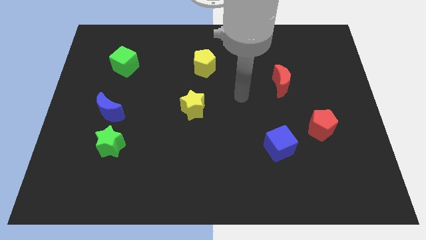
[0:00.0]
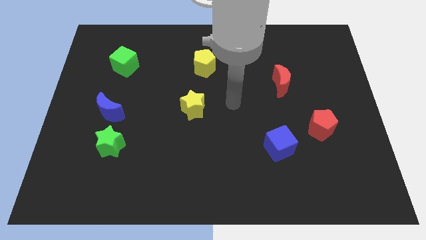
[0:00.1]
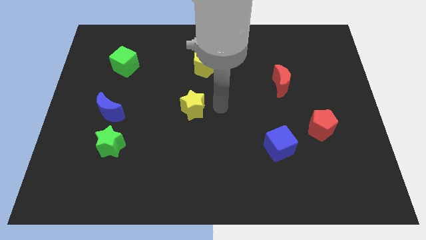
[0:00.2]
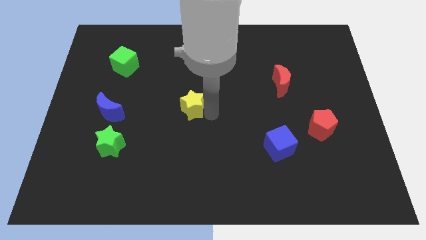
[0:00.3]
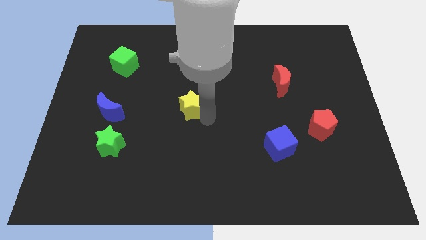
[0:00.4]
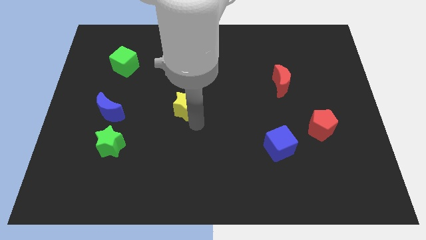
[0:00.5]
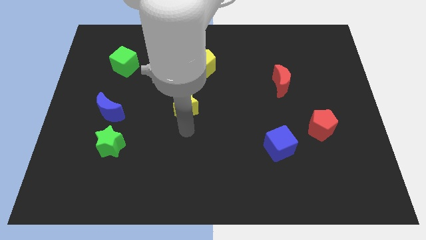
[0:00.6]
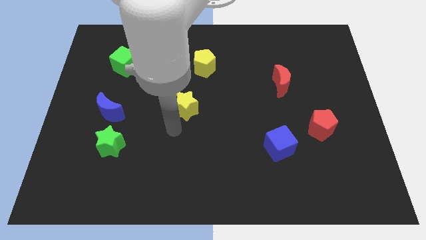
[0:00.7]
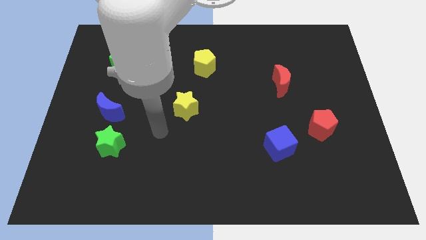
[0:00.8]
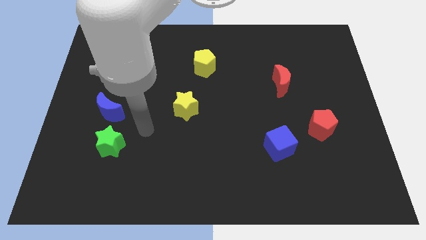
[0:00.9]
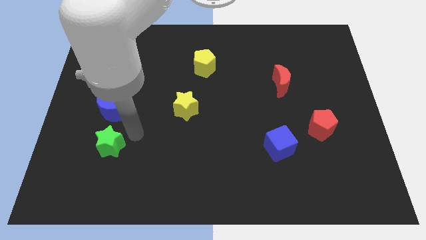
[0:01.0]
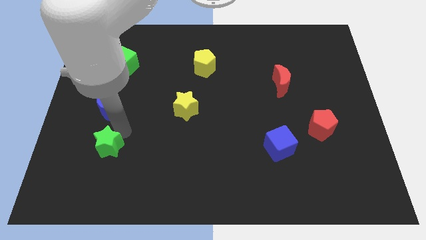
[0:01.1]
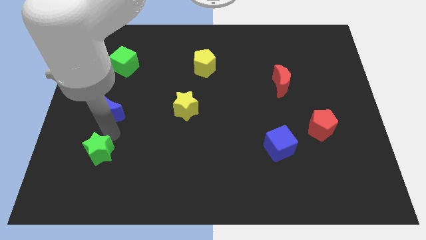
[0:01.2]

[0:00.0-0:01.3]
separate the blue moon from the green star

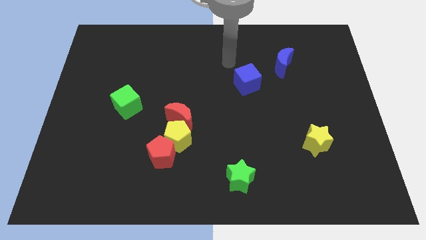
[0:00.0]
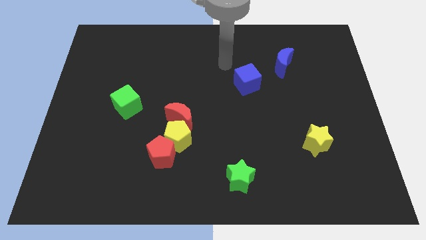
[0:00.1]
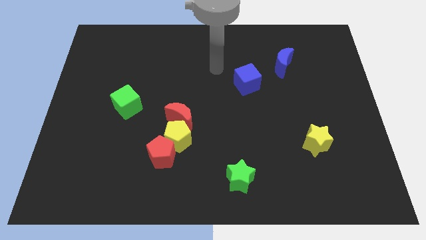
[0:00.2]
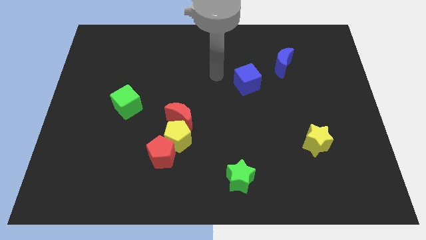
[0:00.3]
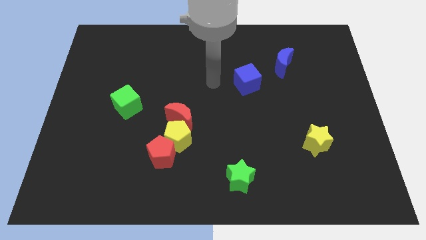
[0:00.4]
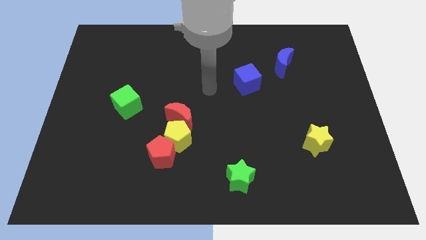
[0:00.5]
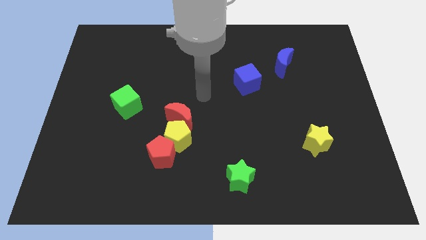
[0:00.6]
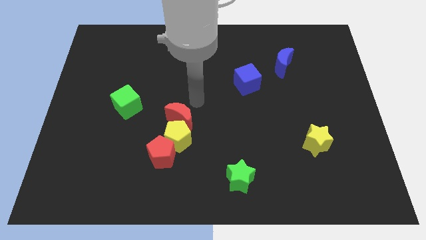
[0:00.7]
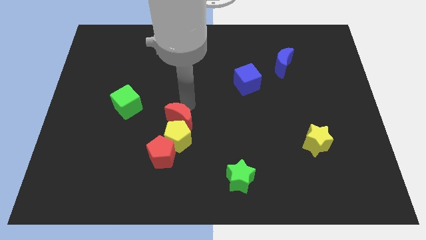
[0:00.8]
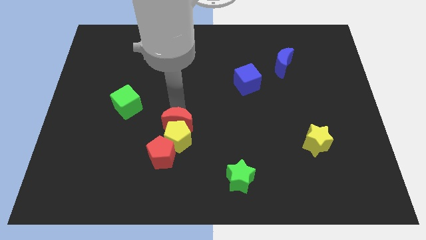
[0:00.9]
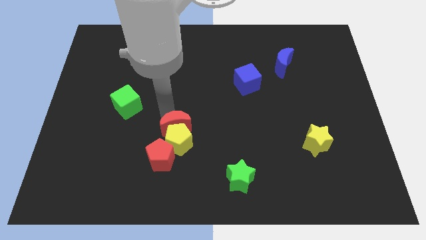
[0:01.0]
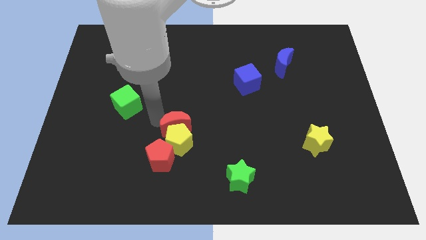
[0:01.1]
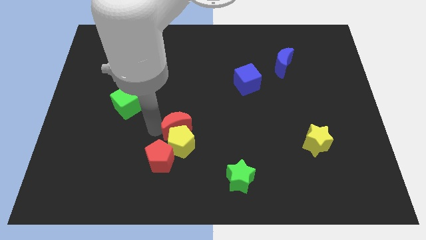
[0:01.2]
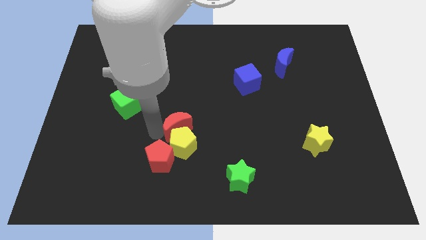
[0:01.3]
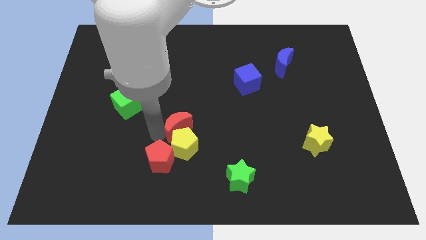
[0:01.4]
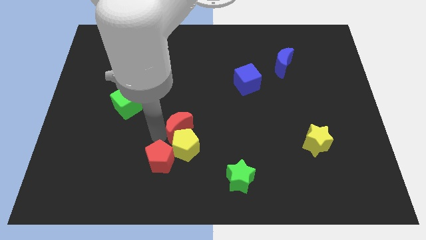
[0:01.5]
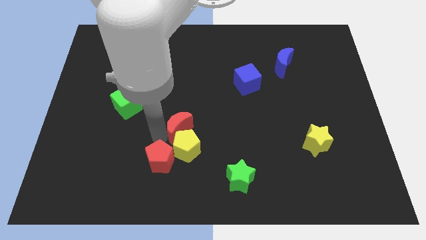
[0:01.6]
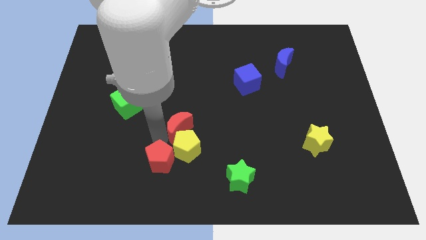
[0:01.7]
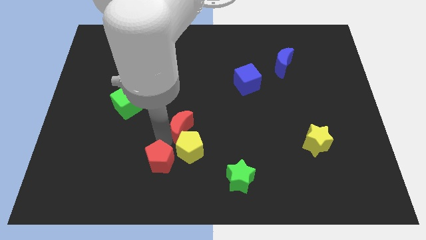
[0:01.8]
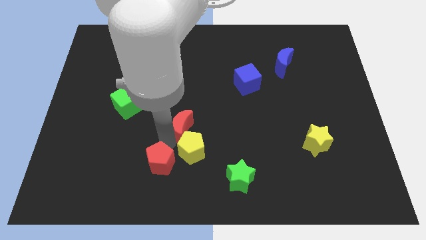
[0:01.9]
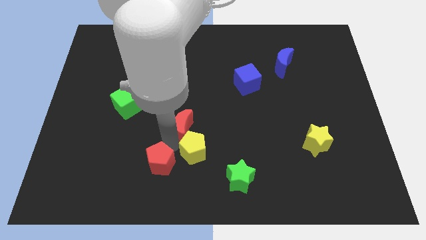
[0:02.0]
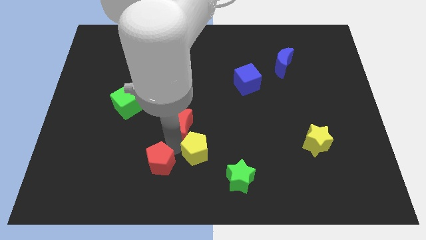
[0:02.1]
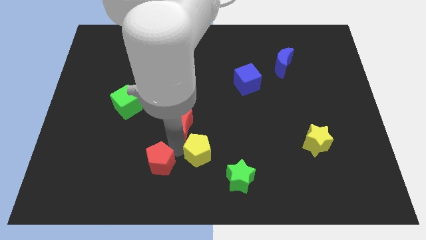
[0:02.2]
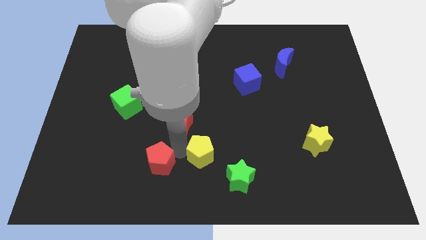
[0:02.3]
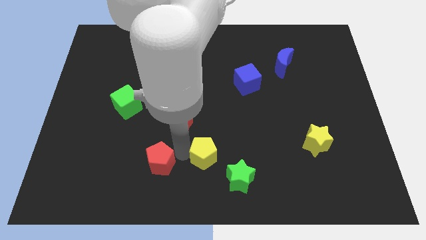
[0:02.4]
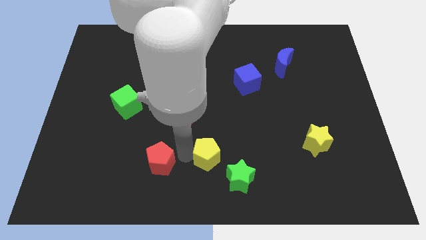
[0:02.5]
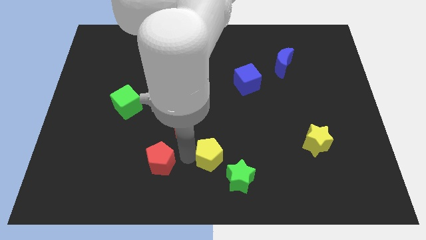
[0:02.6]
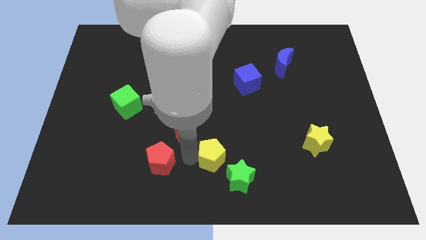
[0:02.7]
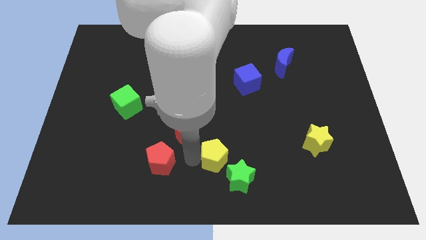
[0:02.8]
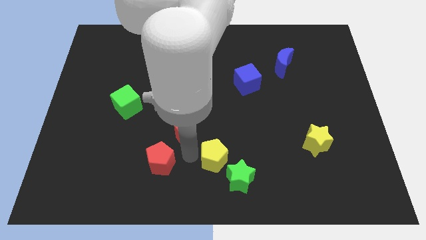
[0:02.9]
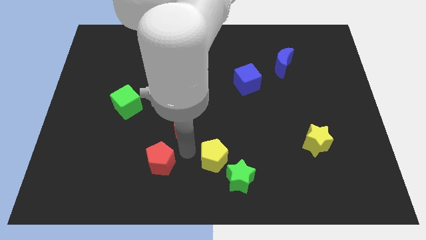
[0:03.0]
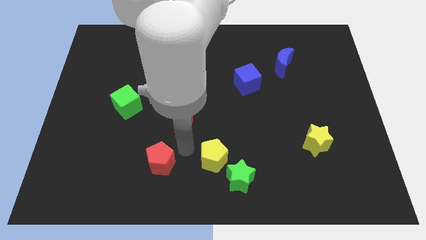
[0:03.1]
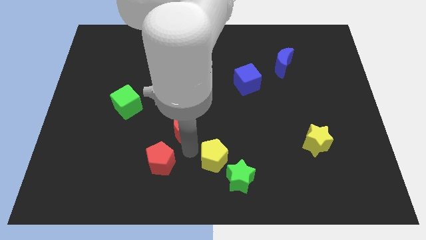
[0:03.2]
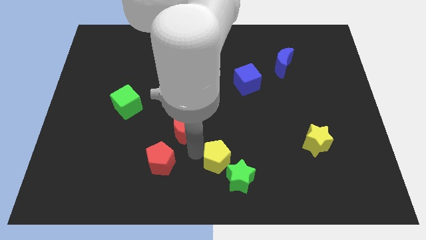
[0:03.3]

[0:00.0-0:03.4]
pull the yellow pentagon apart from the red pentagon and red moon

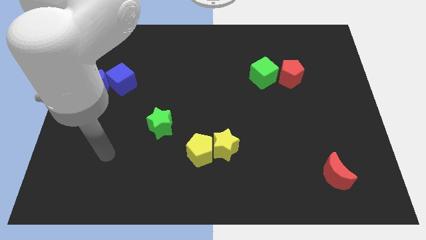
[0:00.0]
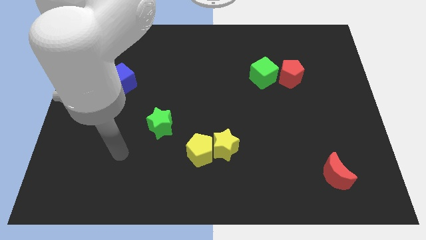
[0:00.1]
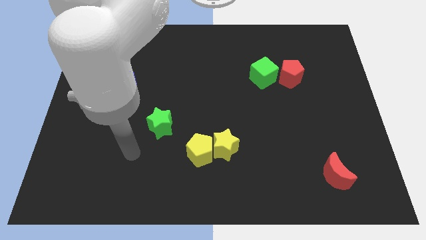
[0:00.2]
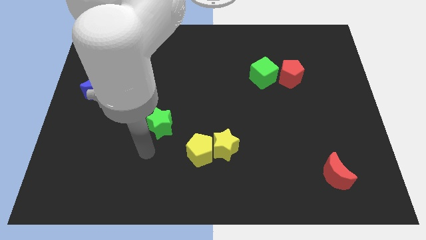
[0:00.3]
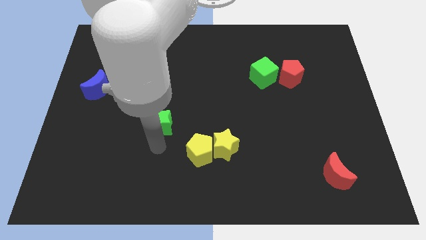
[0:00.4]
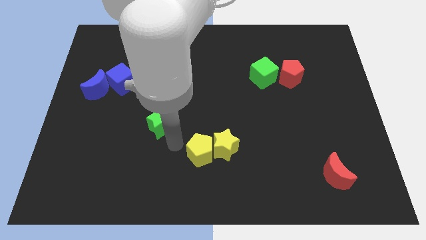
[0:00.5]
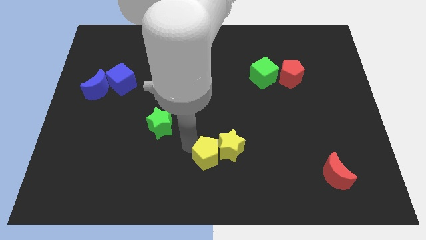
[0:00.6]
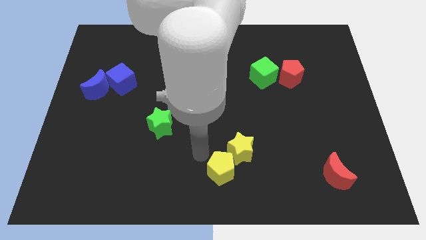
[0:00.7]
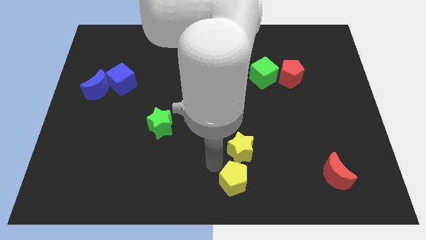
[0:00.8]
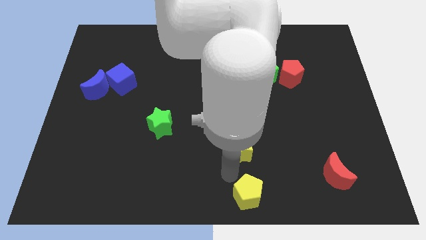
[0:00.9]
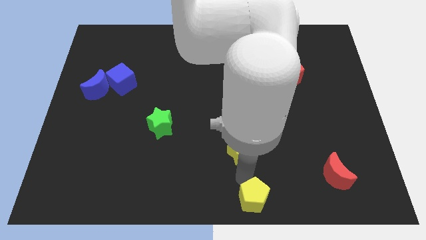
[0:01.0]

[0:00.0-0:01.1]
separate the yellow star from the yellow pentagon

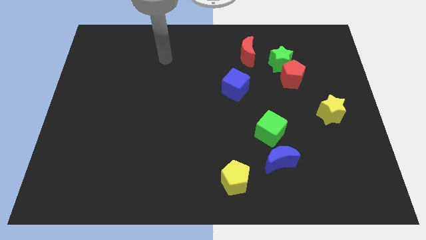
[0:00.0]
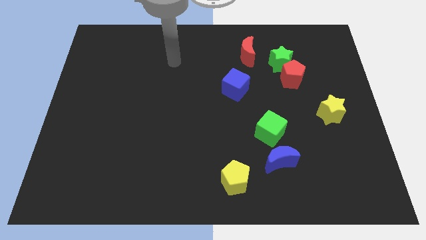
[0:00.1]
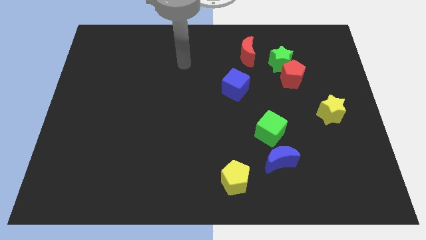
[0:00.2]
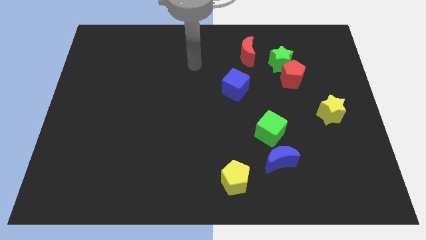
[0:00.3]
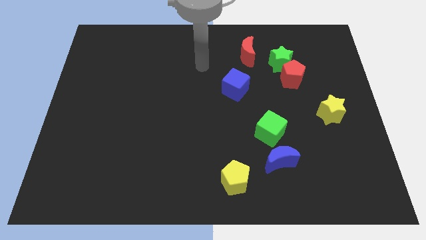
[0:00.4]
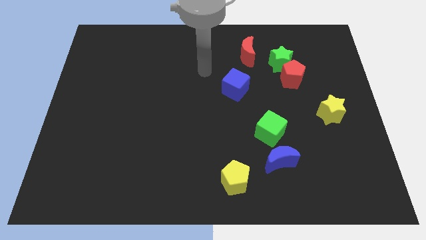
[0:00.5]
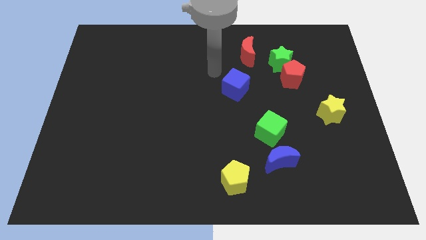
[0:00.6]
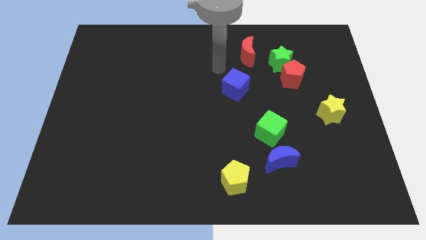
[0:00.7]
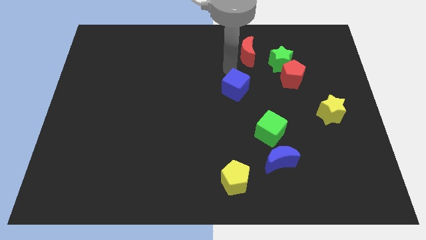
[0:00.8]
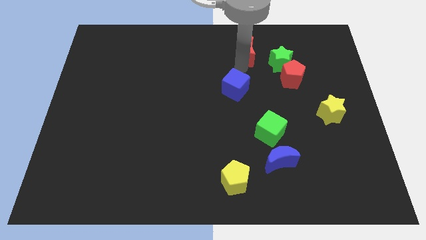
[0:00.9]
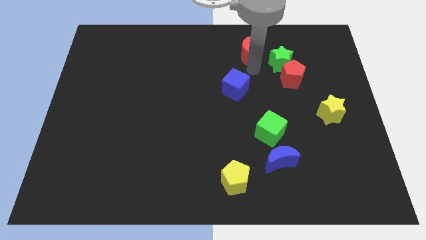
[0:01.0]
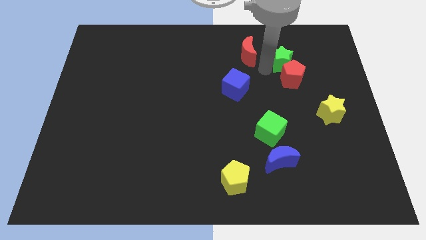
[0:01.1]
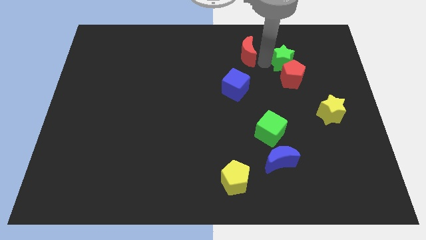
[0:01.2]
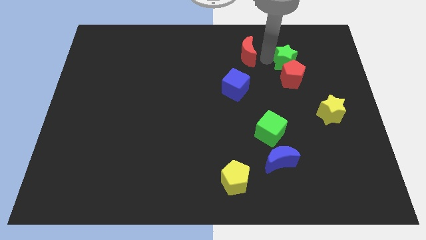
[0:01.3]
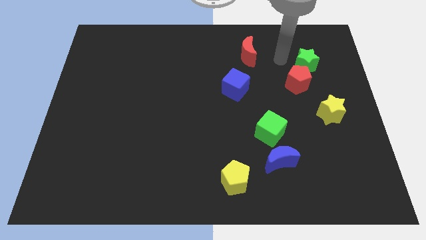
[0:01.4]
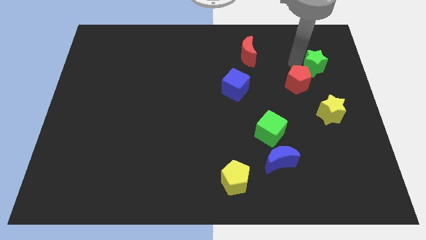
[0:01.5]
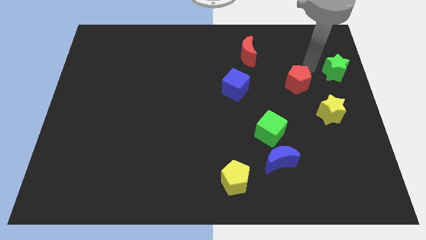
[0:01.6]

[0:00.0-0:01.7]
separate the red pentagon from the green star

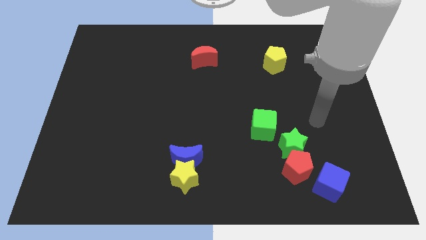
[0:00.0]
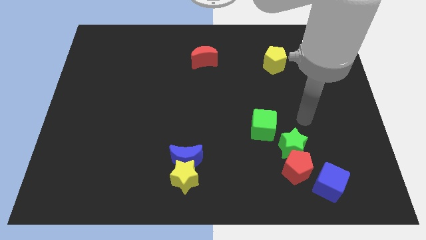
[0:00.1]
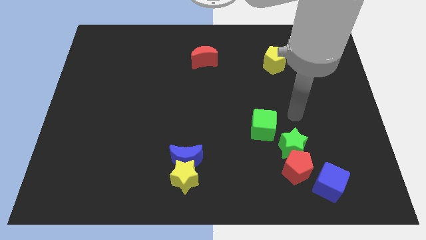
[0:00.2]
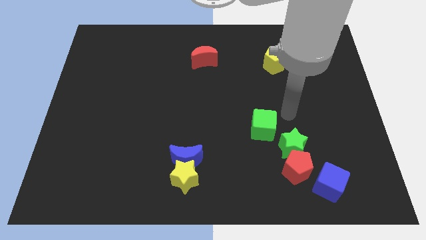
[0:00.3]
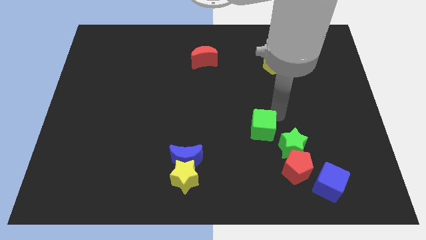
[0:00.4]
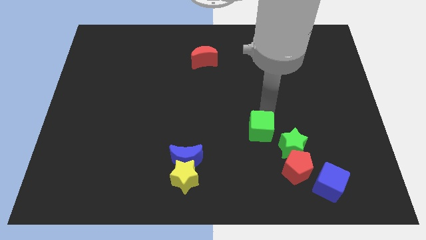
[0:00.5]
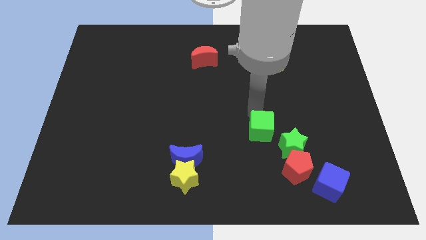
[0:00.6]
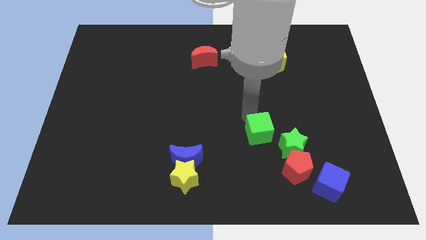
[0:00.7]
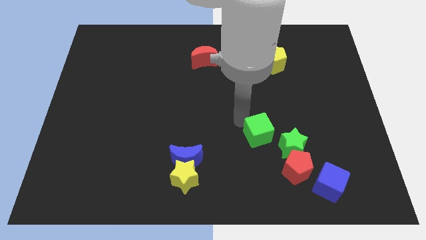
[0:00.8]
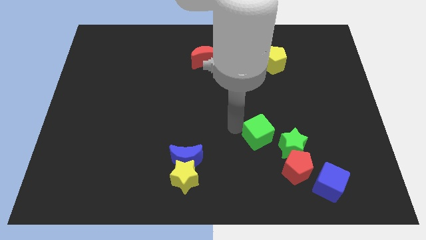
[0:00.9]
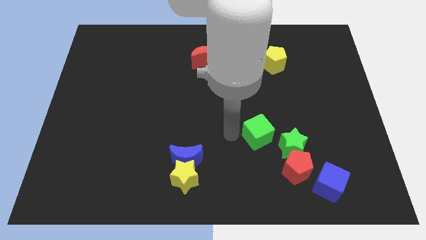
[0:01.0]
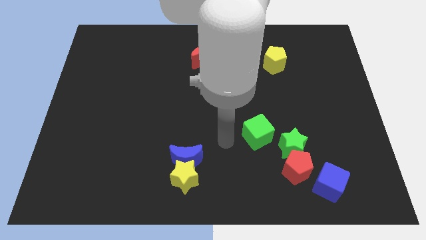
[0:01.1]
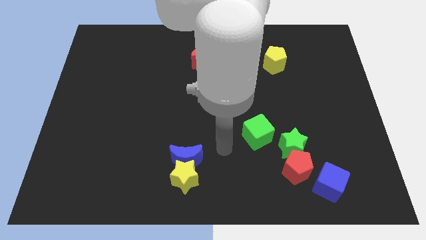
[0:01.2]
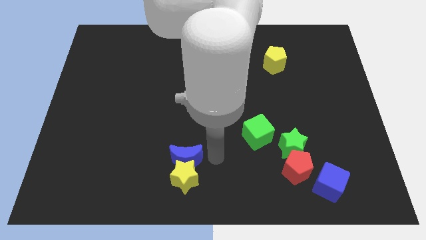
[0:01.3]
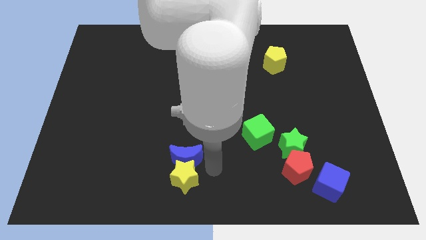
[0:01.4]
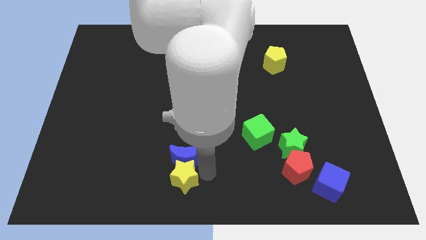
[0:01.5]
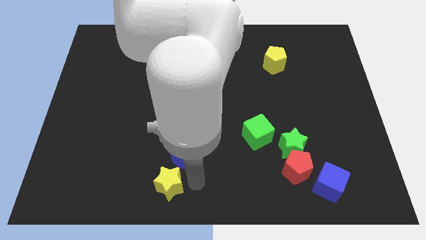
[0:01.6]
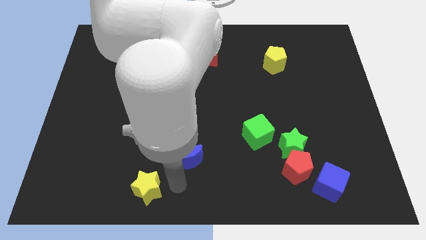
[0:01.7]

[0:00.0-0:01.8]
move the blue moon away from the yellow star

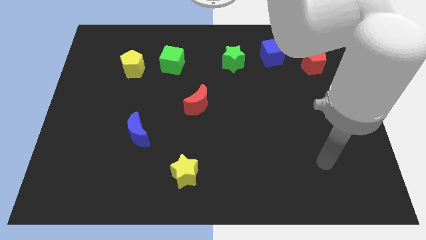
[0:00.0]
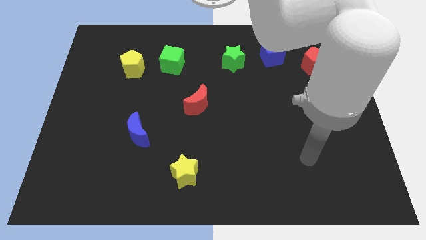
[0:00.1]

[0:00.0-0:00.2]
separate the green cube from the yellow pentagon
